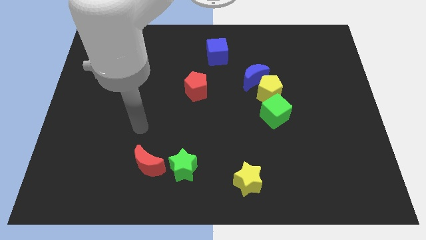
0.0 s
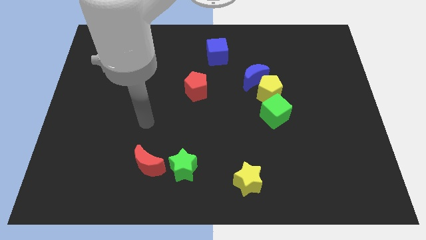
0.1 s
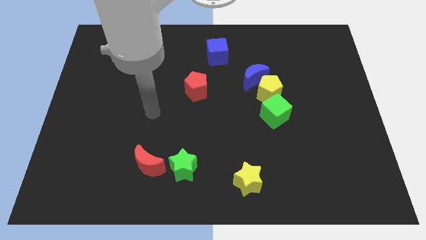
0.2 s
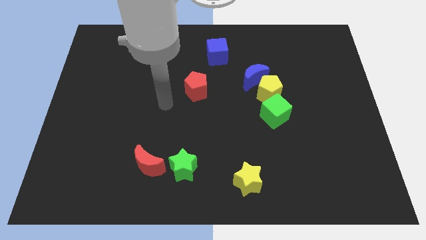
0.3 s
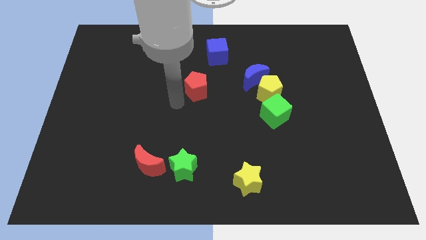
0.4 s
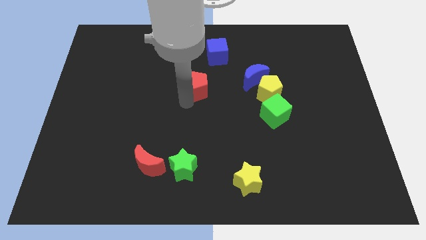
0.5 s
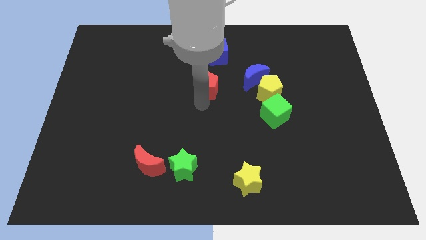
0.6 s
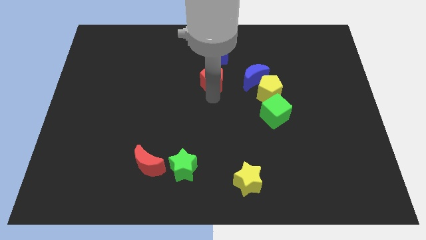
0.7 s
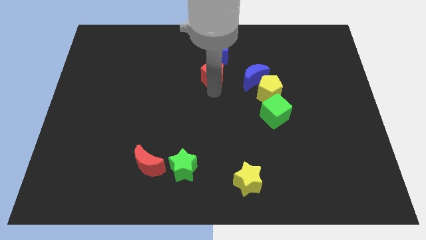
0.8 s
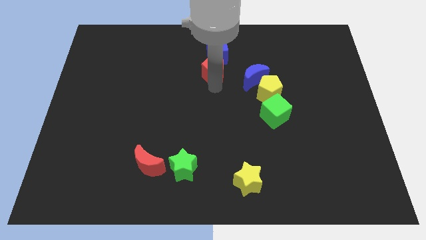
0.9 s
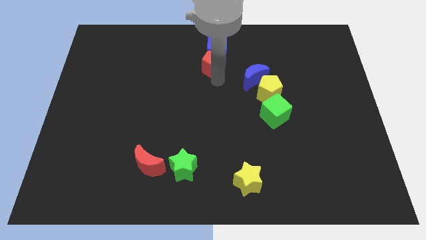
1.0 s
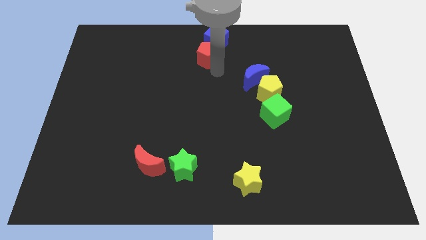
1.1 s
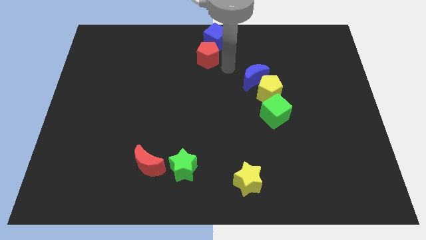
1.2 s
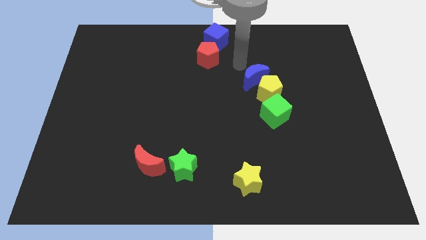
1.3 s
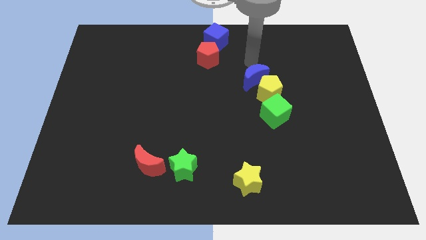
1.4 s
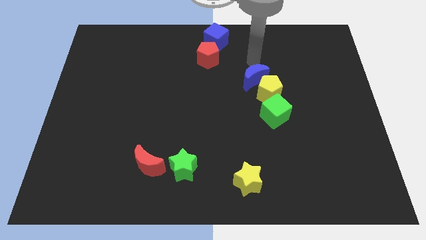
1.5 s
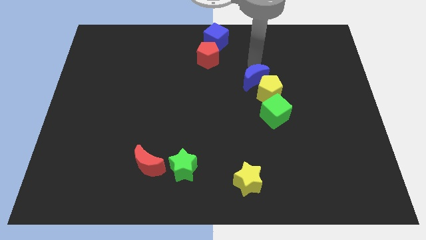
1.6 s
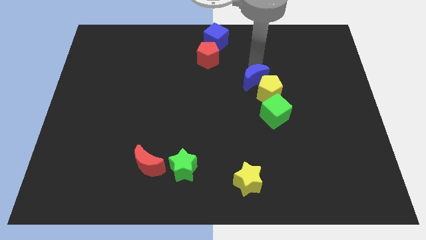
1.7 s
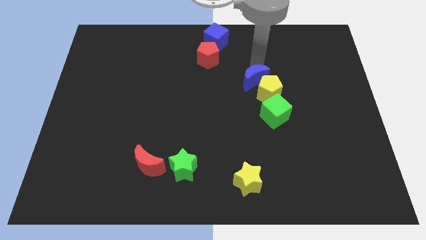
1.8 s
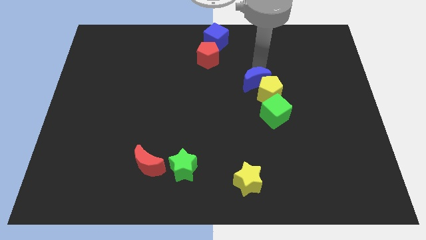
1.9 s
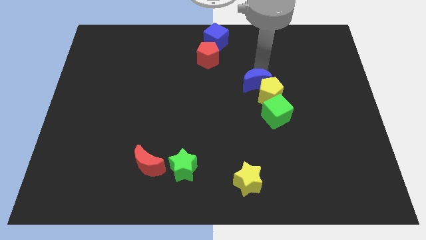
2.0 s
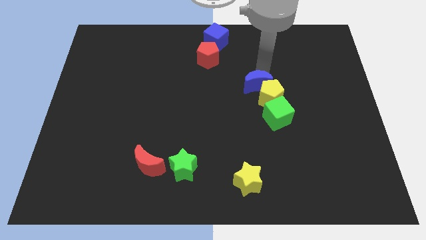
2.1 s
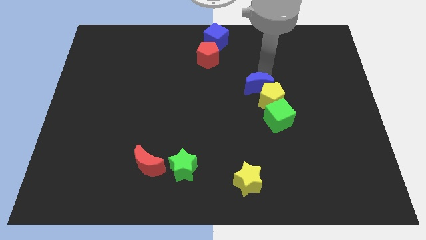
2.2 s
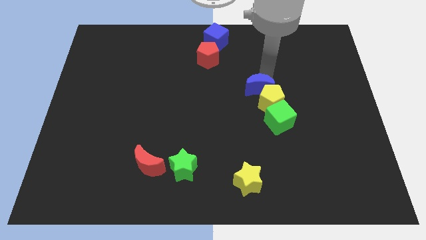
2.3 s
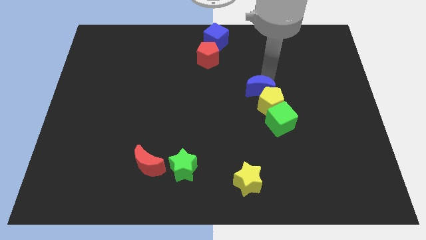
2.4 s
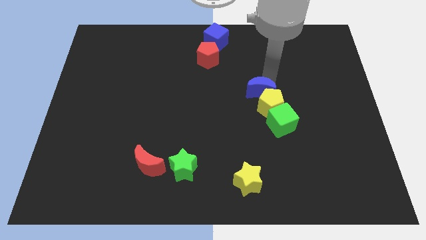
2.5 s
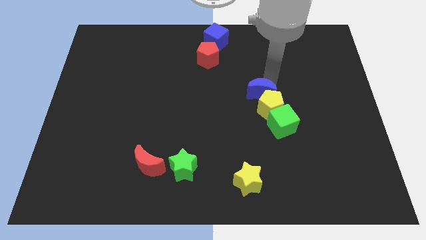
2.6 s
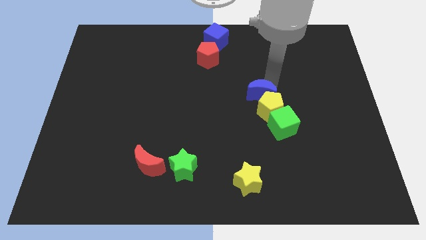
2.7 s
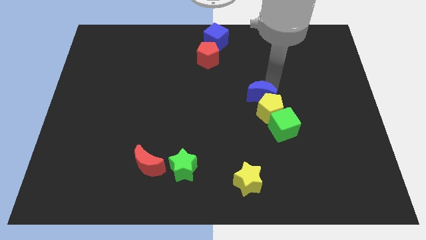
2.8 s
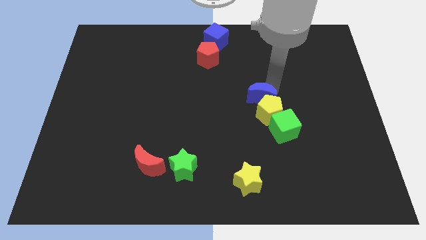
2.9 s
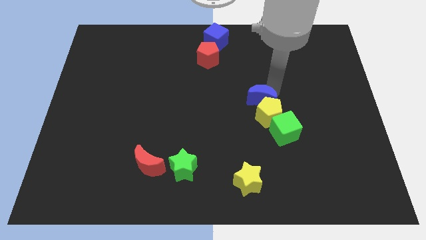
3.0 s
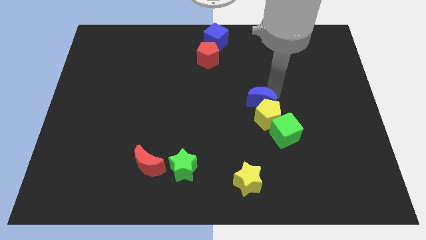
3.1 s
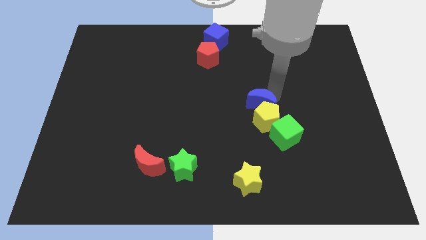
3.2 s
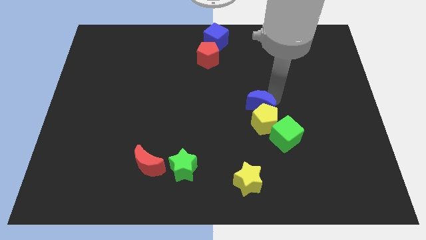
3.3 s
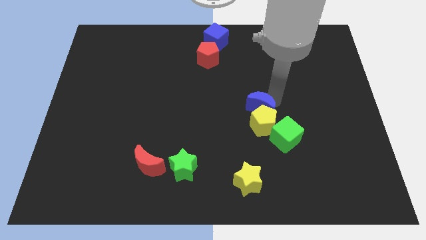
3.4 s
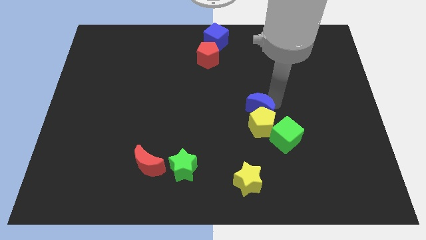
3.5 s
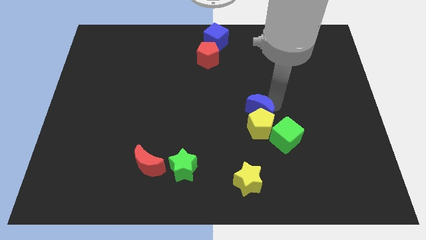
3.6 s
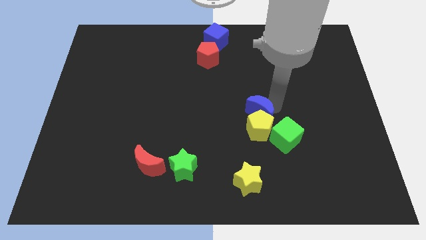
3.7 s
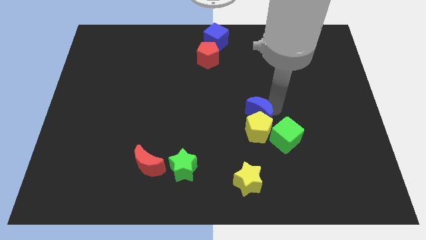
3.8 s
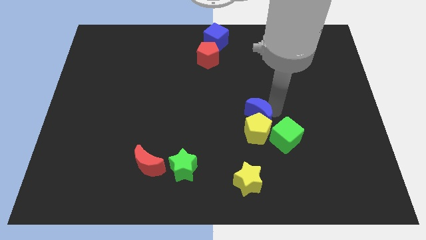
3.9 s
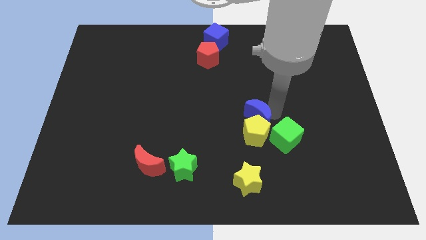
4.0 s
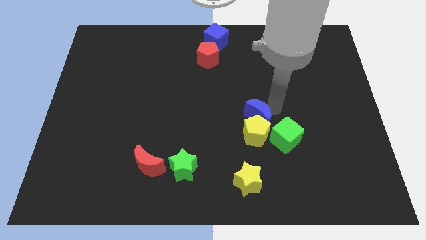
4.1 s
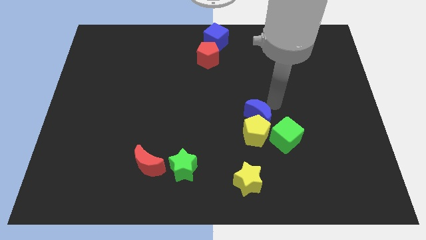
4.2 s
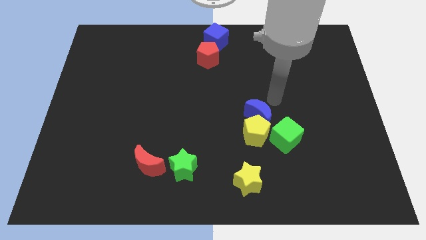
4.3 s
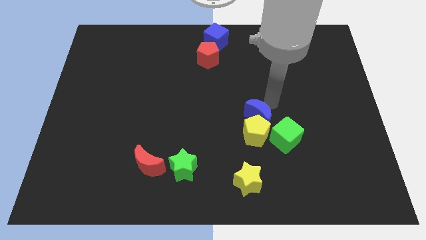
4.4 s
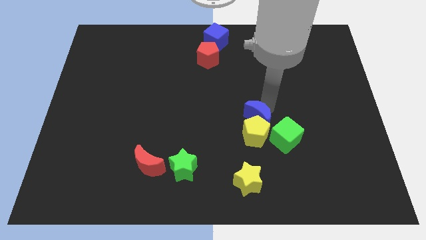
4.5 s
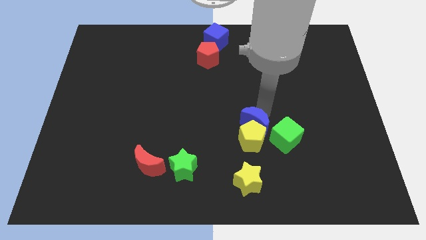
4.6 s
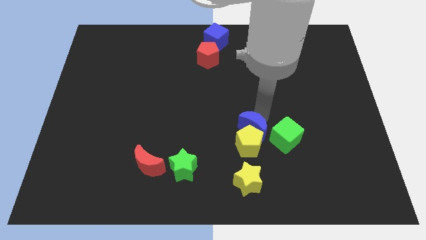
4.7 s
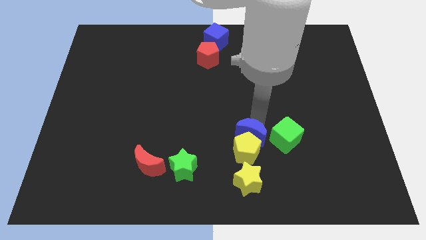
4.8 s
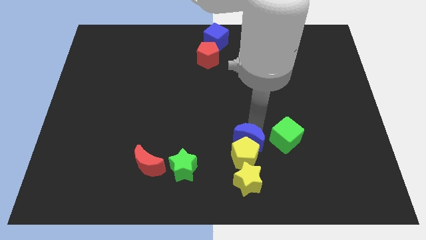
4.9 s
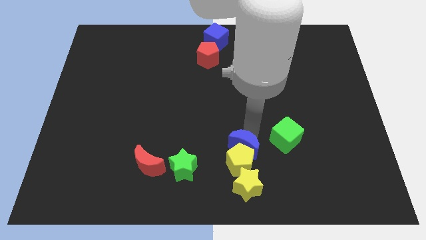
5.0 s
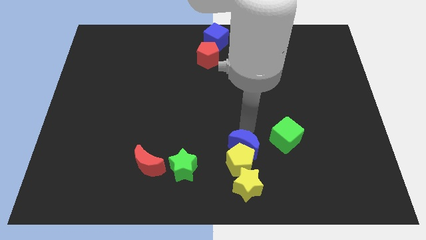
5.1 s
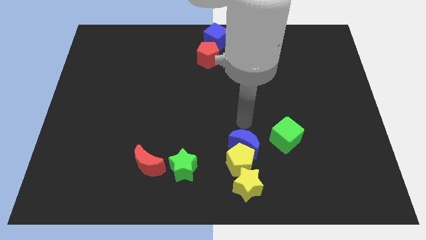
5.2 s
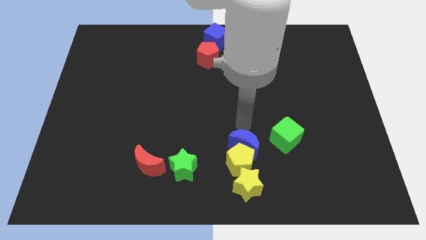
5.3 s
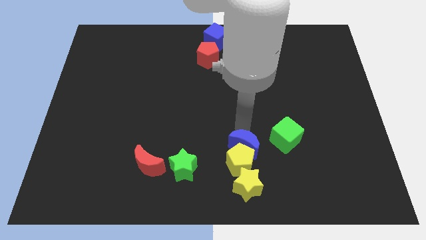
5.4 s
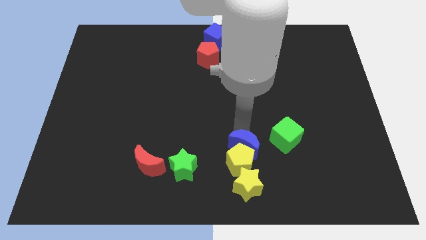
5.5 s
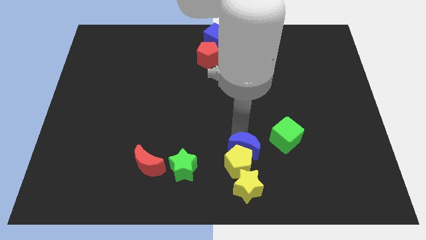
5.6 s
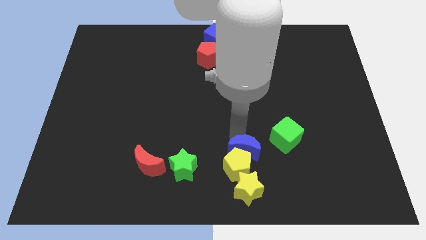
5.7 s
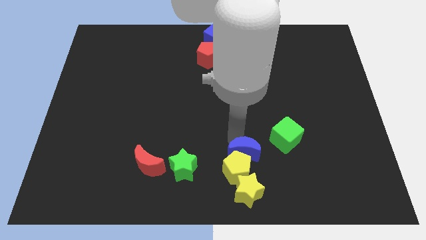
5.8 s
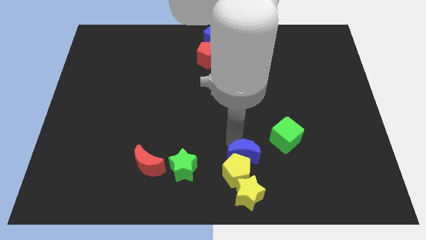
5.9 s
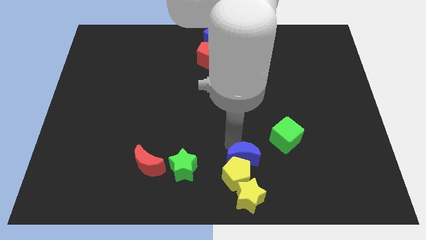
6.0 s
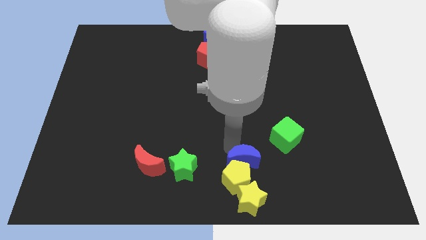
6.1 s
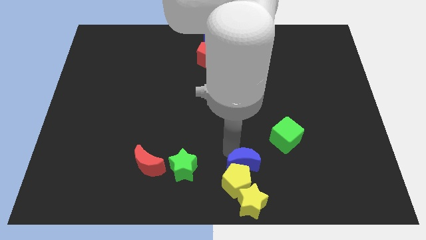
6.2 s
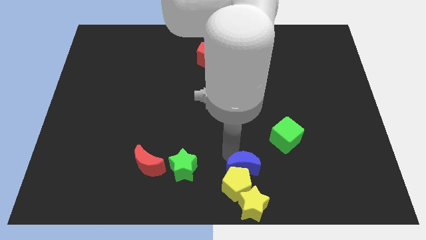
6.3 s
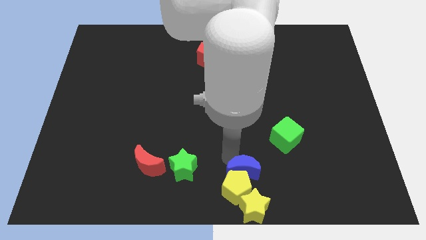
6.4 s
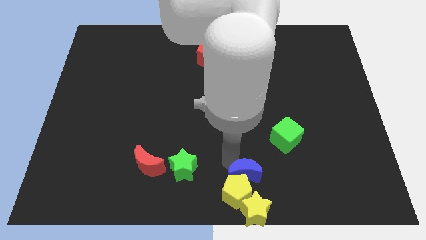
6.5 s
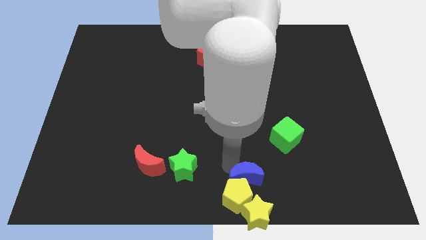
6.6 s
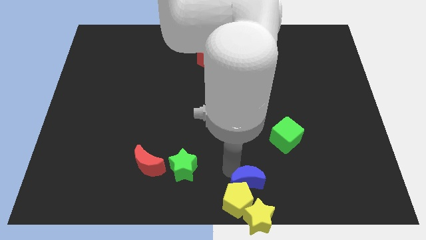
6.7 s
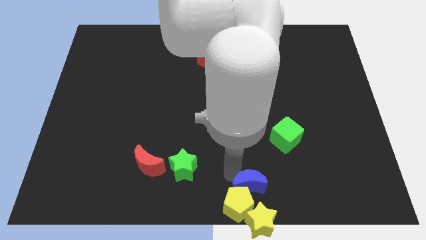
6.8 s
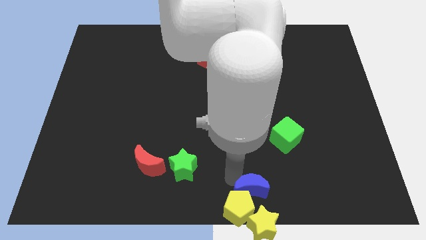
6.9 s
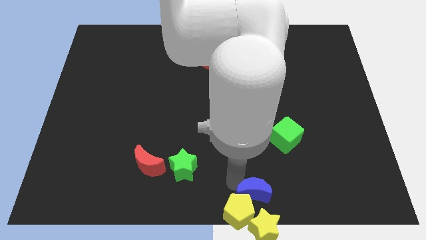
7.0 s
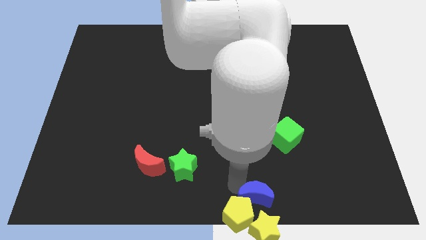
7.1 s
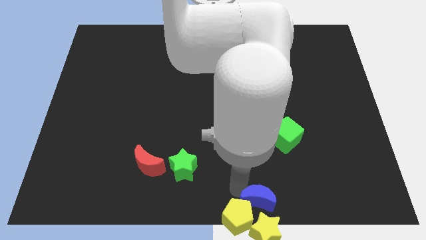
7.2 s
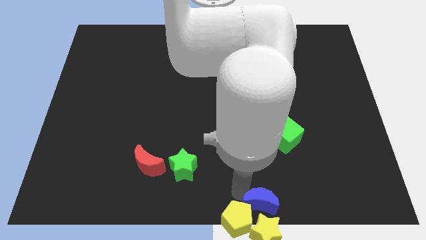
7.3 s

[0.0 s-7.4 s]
move the blue moon close to the yellow star
